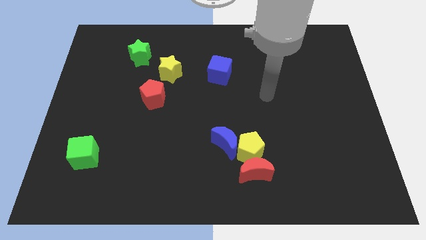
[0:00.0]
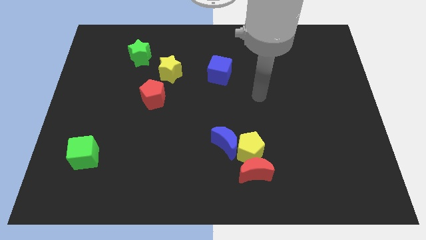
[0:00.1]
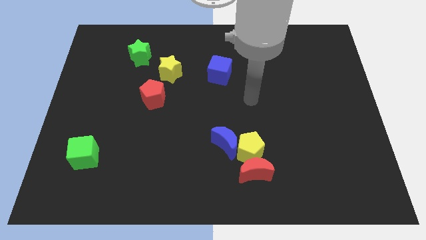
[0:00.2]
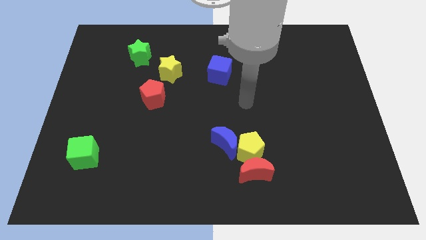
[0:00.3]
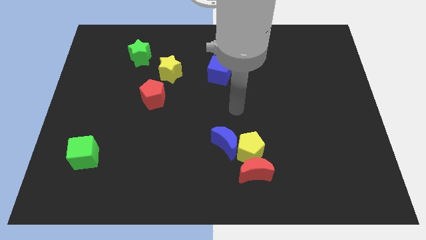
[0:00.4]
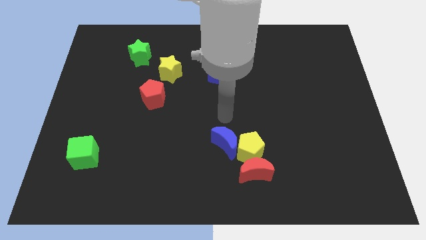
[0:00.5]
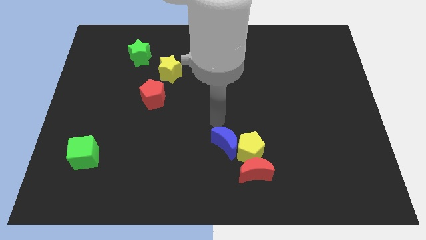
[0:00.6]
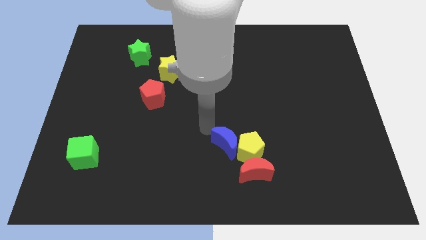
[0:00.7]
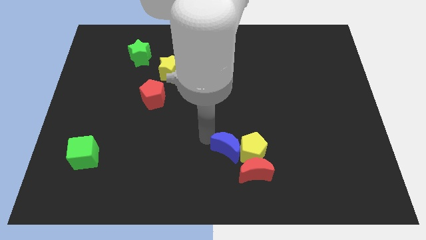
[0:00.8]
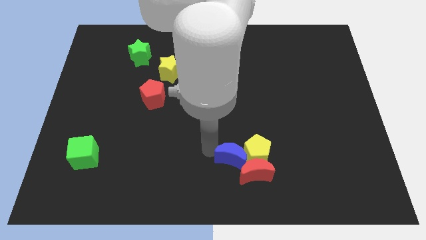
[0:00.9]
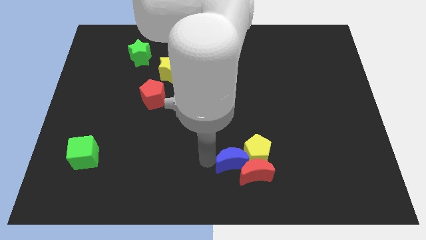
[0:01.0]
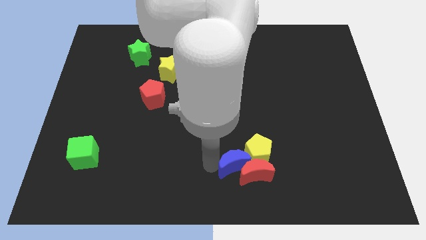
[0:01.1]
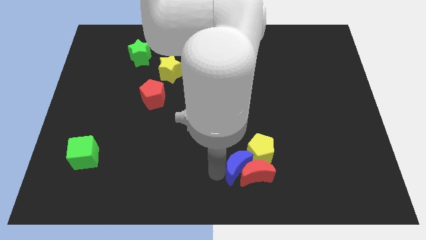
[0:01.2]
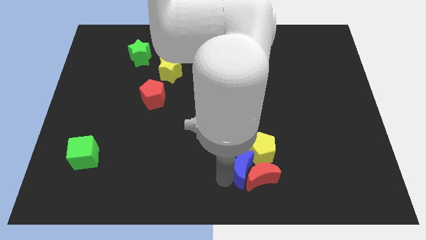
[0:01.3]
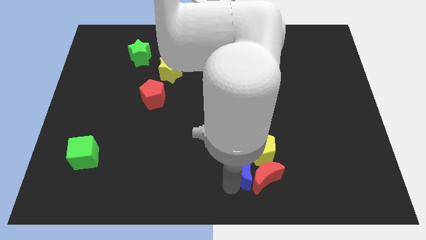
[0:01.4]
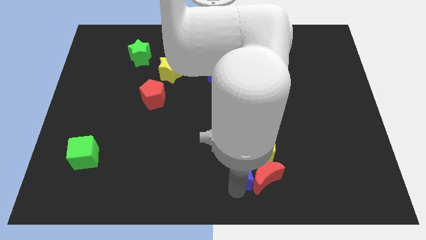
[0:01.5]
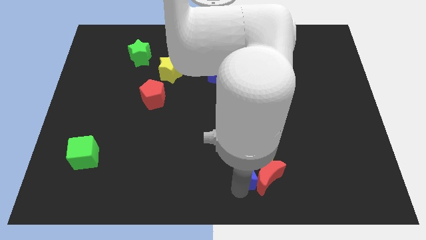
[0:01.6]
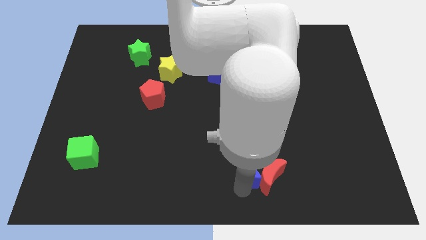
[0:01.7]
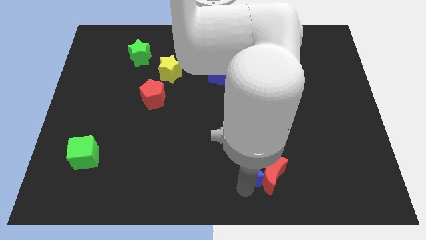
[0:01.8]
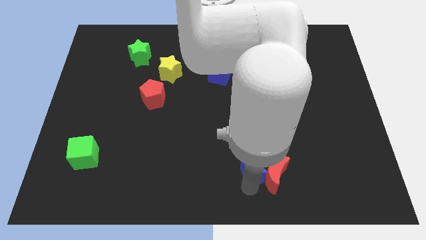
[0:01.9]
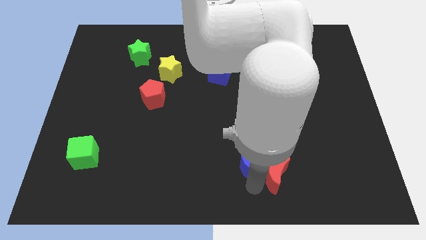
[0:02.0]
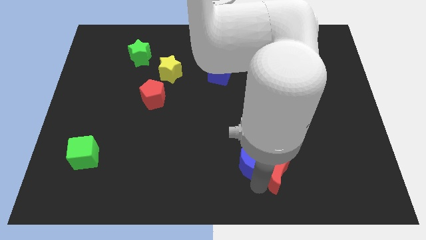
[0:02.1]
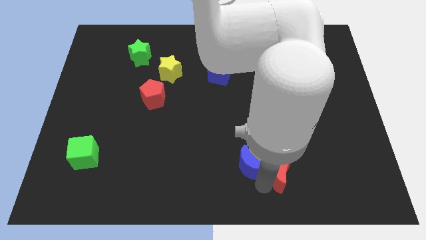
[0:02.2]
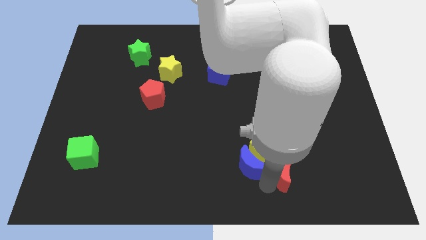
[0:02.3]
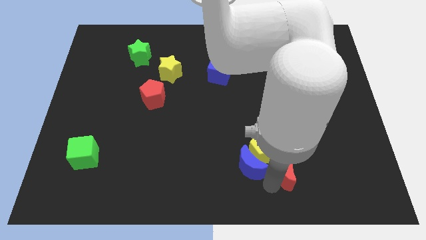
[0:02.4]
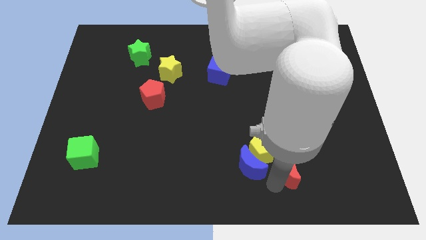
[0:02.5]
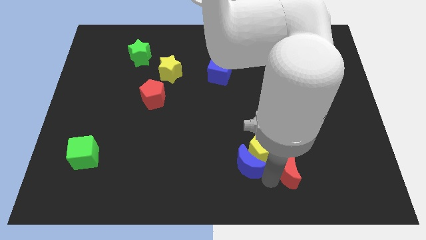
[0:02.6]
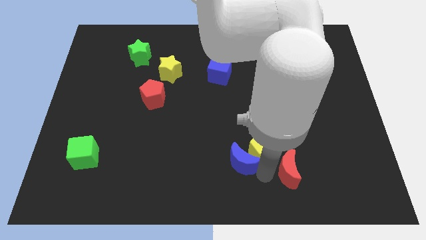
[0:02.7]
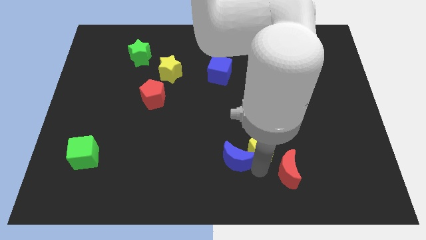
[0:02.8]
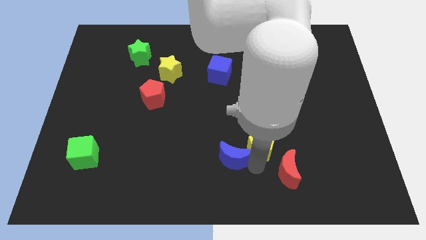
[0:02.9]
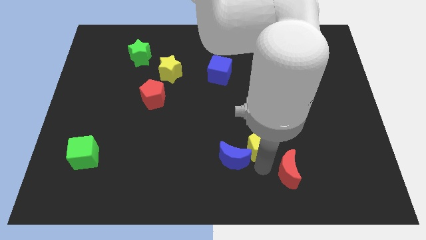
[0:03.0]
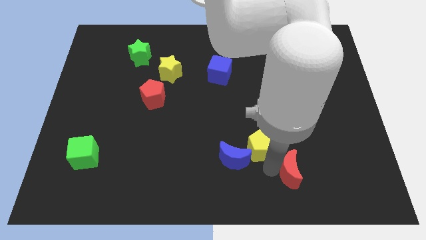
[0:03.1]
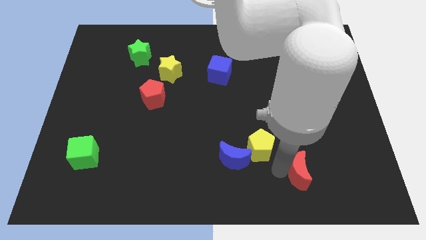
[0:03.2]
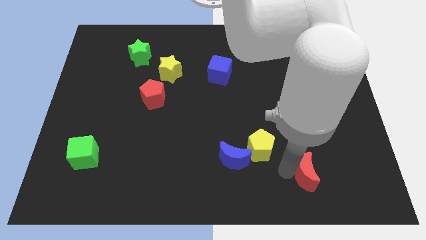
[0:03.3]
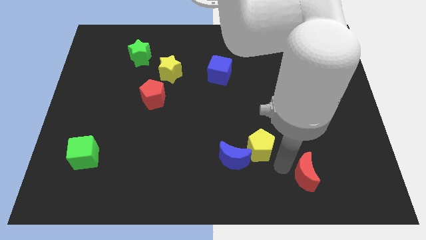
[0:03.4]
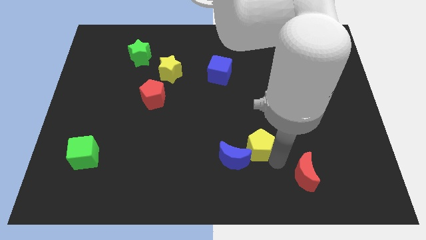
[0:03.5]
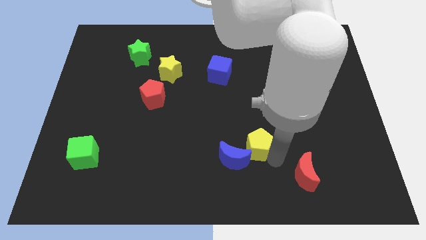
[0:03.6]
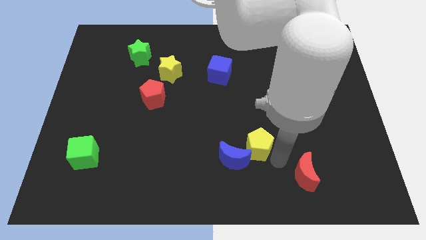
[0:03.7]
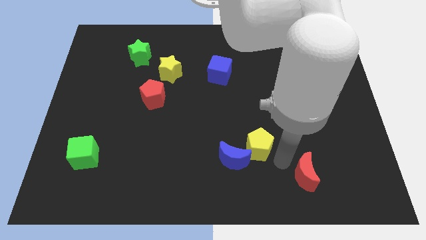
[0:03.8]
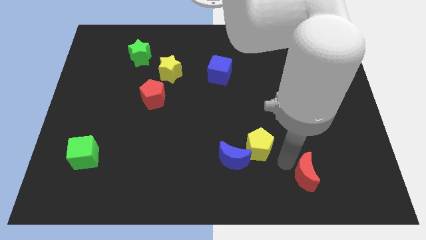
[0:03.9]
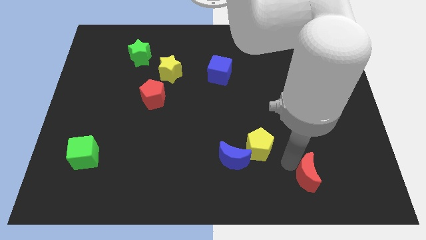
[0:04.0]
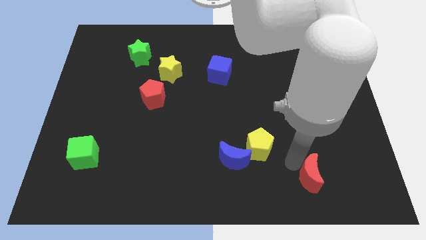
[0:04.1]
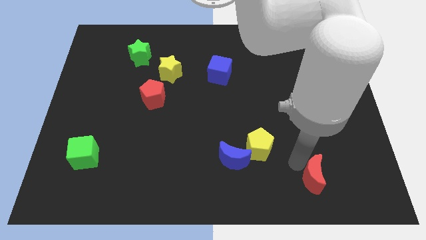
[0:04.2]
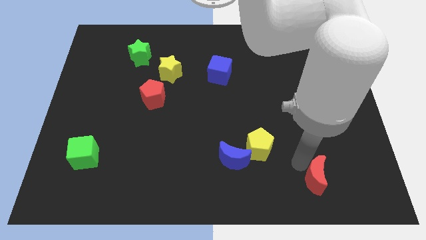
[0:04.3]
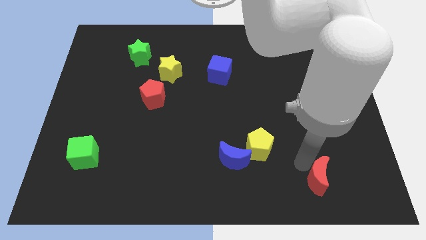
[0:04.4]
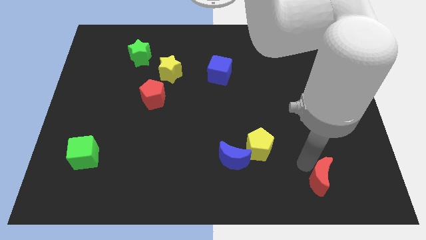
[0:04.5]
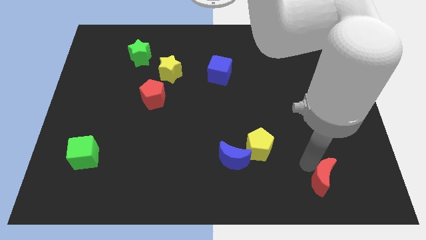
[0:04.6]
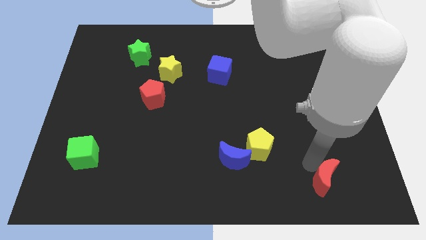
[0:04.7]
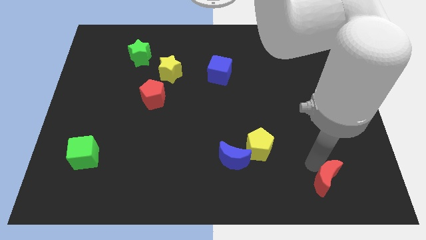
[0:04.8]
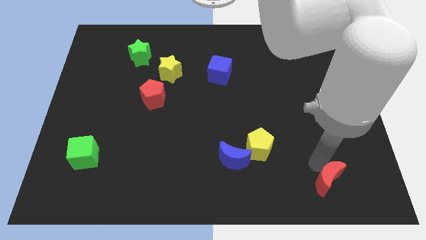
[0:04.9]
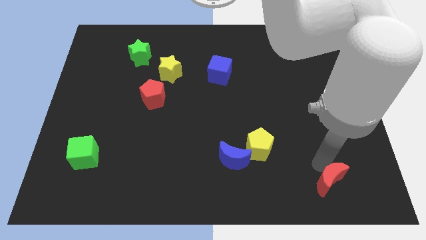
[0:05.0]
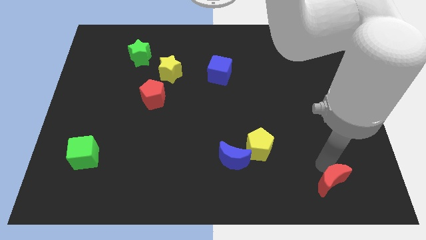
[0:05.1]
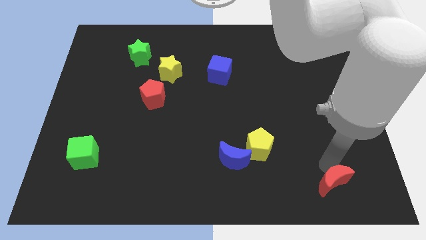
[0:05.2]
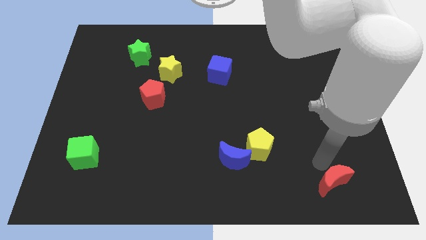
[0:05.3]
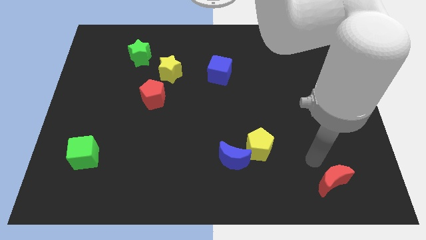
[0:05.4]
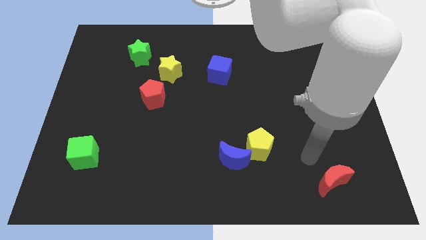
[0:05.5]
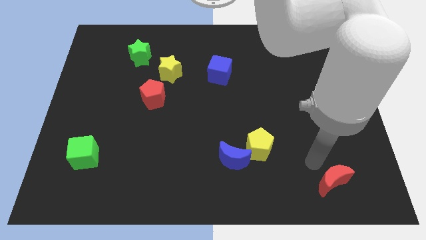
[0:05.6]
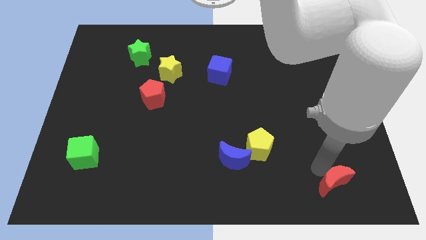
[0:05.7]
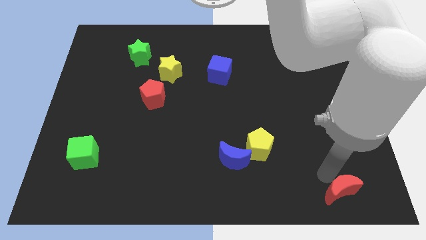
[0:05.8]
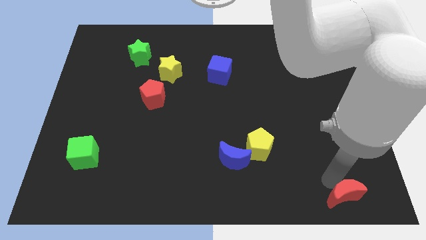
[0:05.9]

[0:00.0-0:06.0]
move the red moon to the bottom right of the board
